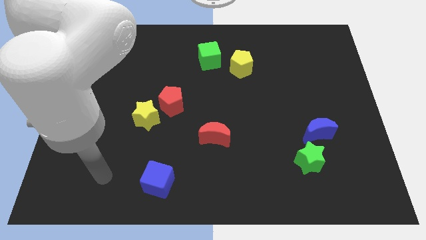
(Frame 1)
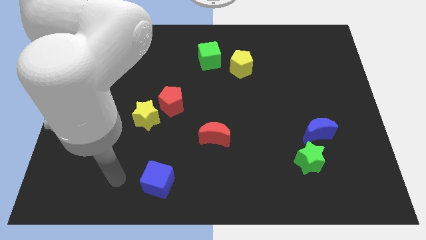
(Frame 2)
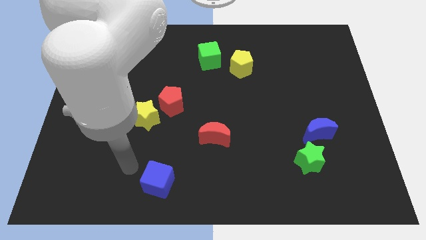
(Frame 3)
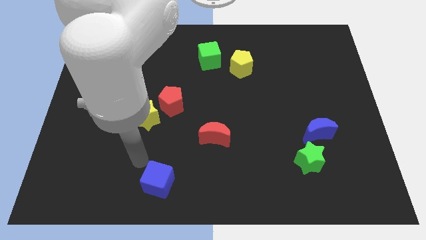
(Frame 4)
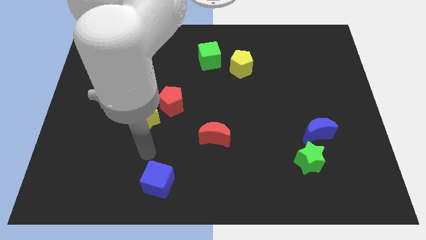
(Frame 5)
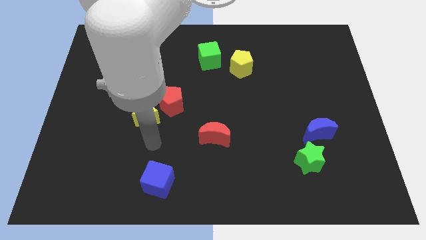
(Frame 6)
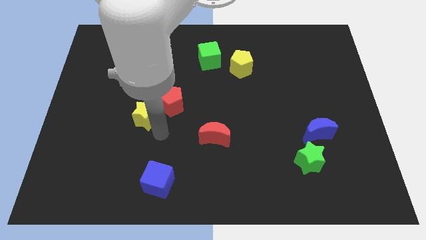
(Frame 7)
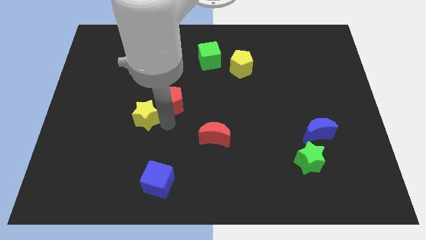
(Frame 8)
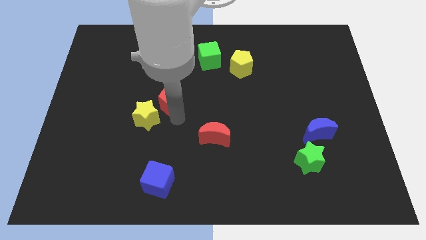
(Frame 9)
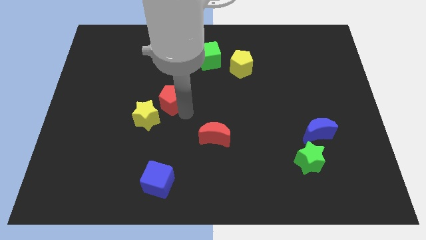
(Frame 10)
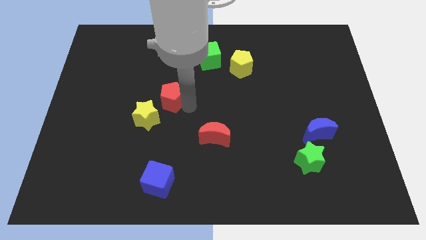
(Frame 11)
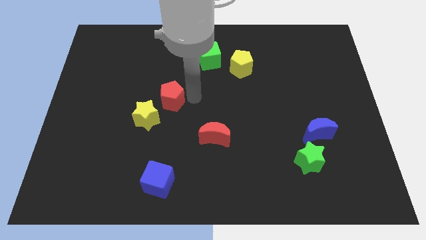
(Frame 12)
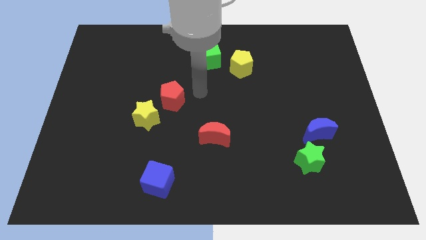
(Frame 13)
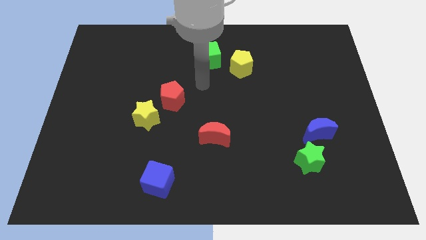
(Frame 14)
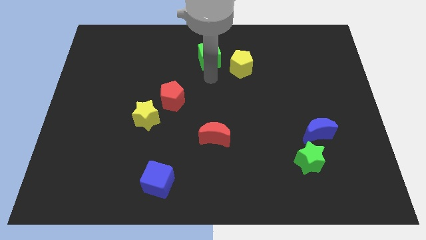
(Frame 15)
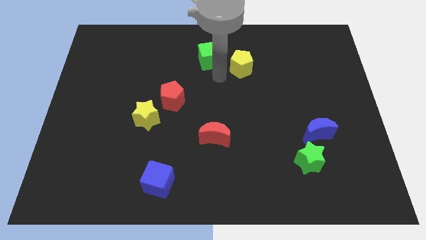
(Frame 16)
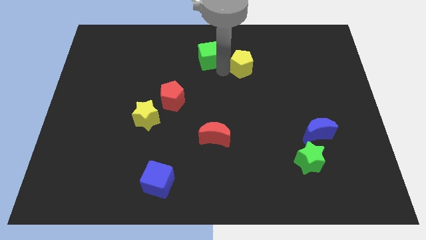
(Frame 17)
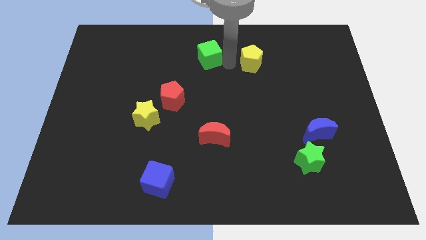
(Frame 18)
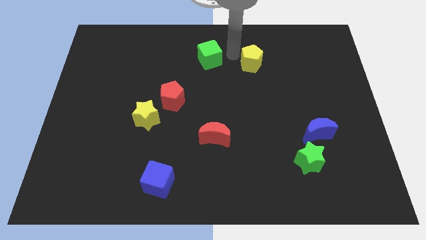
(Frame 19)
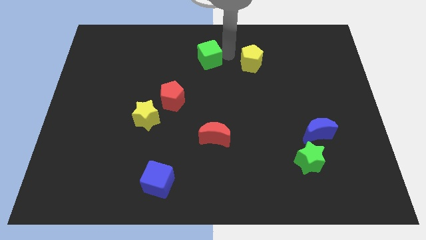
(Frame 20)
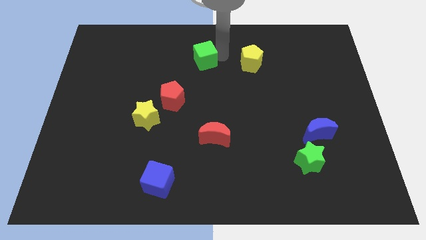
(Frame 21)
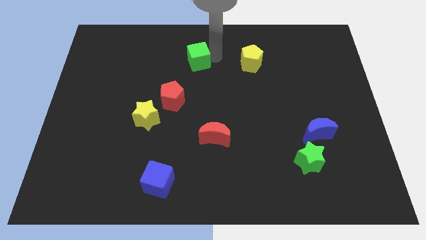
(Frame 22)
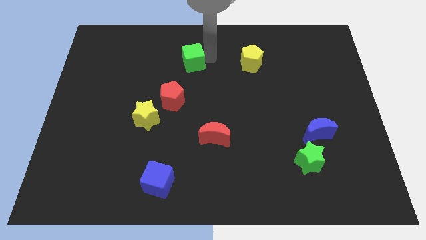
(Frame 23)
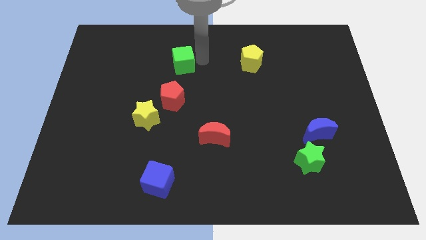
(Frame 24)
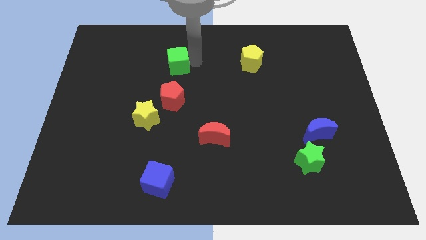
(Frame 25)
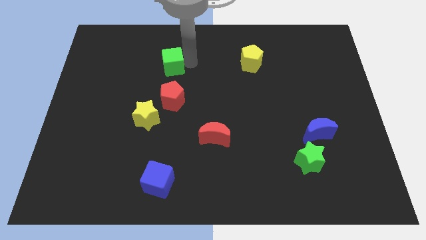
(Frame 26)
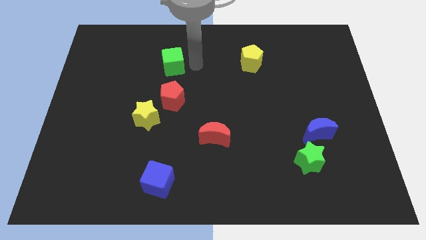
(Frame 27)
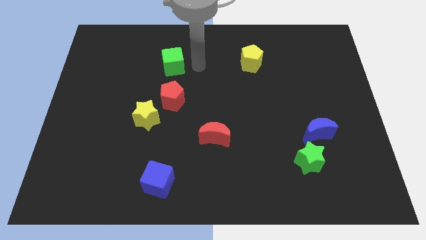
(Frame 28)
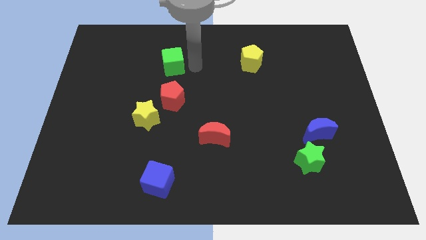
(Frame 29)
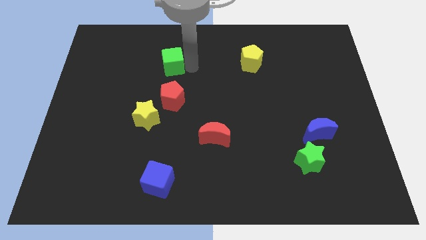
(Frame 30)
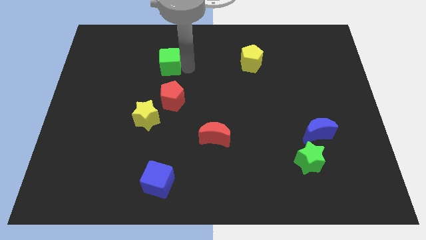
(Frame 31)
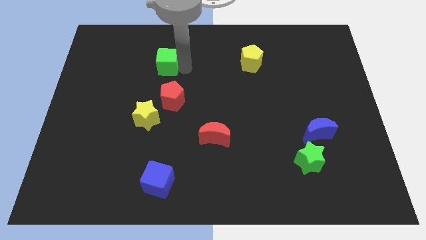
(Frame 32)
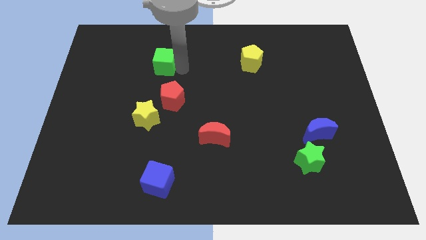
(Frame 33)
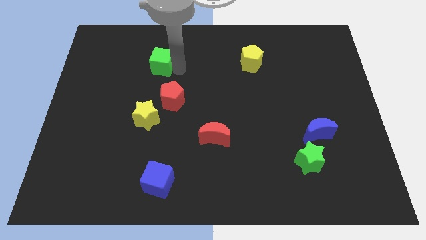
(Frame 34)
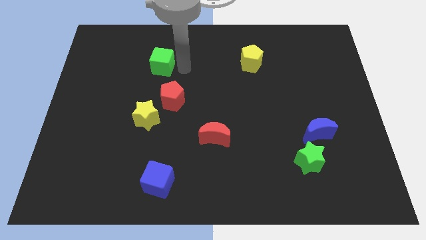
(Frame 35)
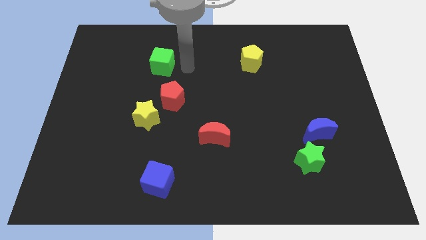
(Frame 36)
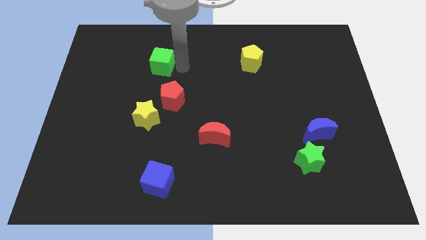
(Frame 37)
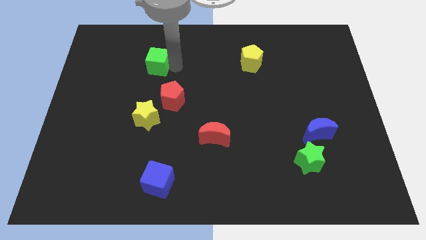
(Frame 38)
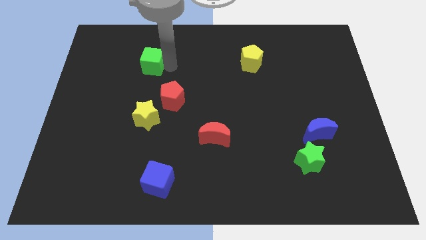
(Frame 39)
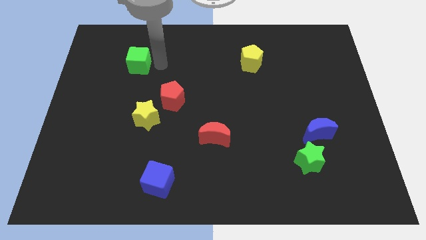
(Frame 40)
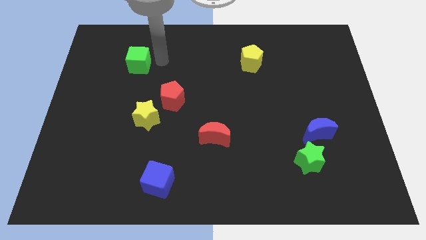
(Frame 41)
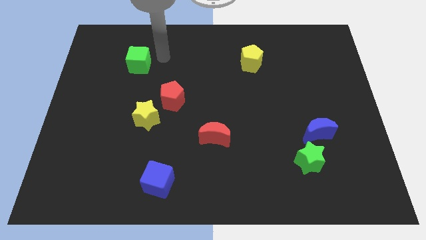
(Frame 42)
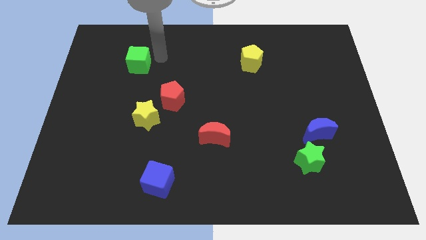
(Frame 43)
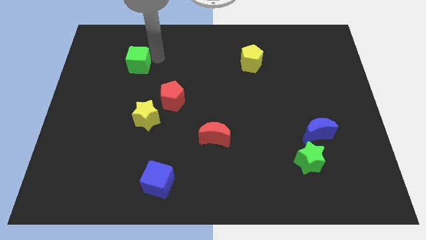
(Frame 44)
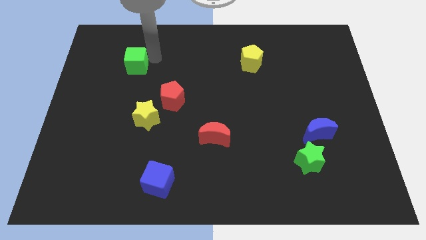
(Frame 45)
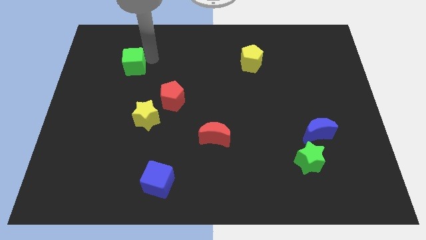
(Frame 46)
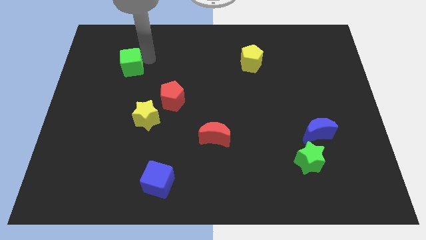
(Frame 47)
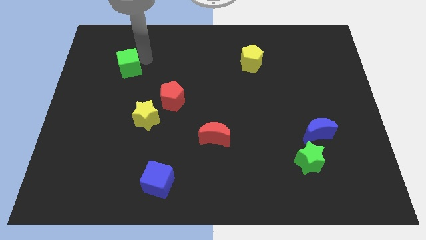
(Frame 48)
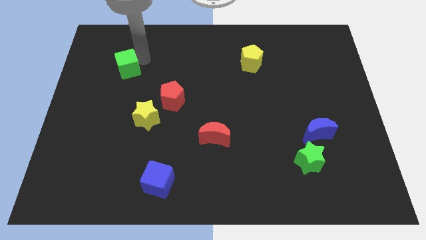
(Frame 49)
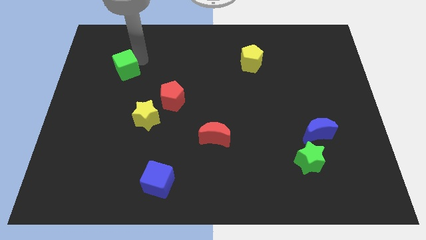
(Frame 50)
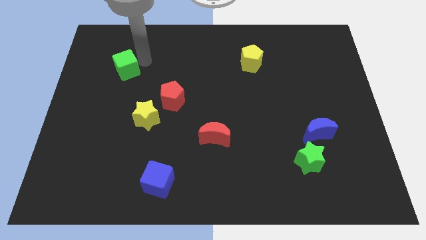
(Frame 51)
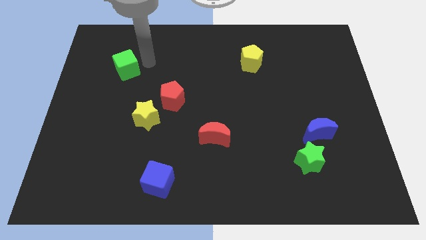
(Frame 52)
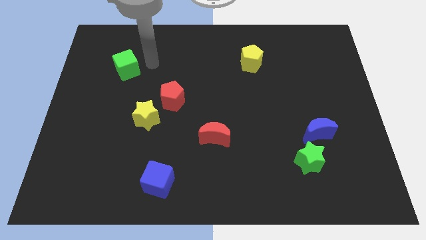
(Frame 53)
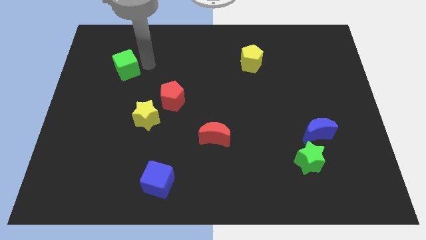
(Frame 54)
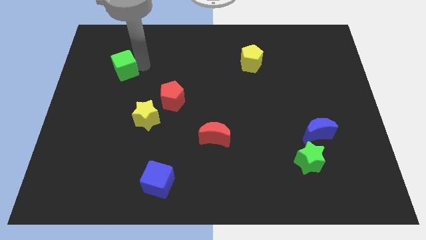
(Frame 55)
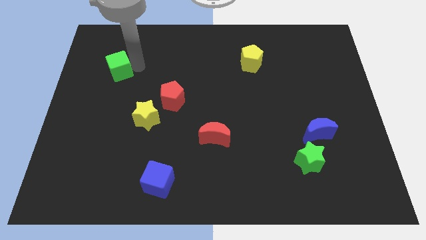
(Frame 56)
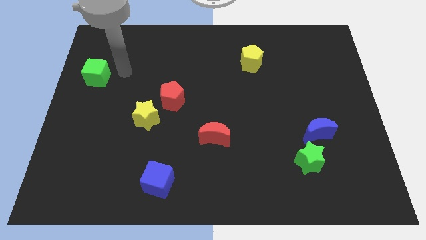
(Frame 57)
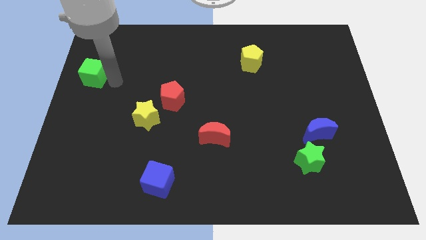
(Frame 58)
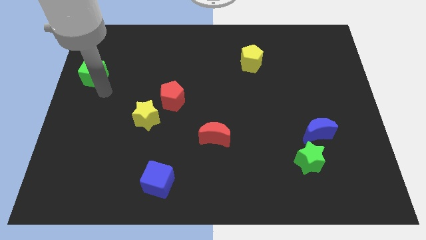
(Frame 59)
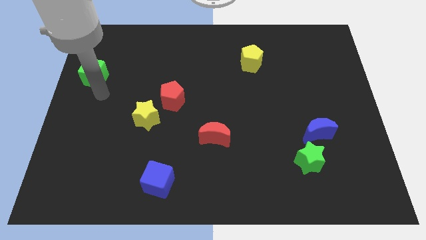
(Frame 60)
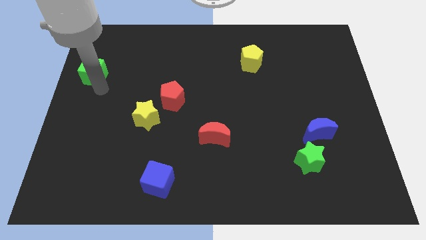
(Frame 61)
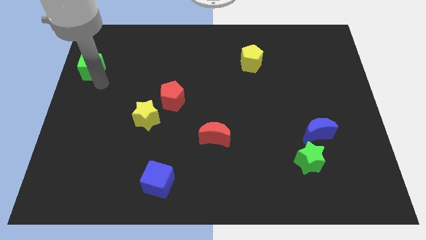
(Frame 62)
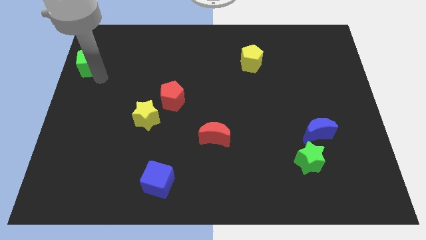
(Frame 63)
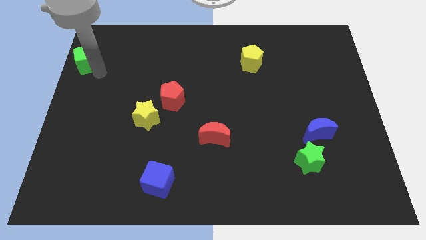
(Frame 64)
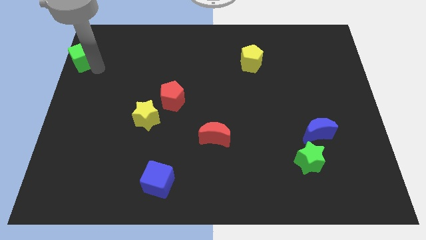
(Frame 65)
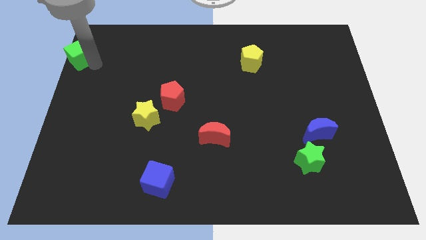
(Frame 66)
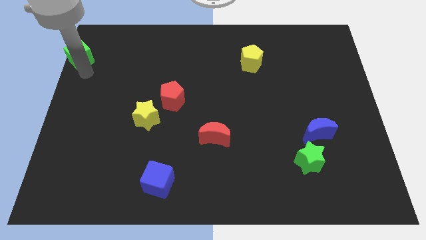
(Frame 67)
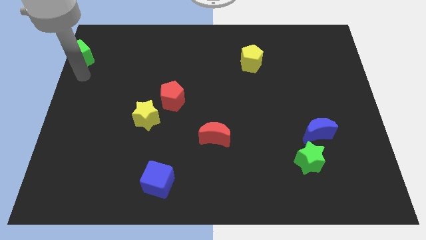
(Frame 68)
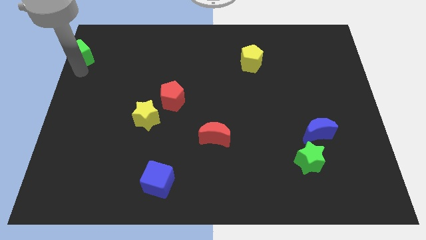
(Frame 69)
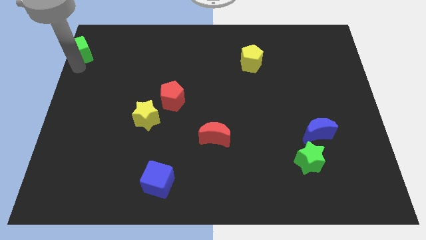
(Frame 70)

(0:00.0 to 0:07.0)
move the green cube to the top left
